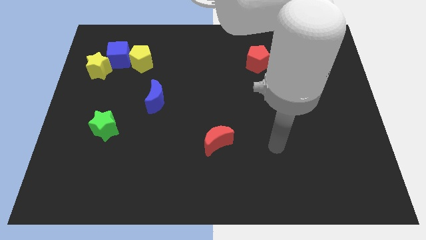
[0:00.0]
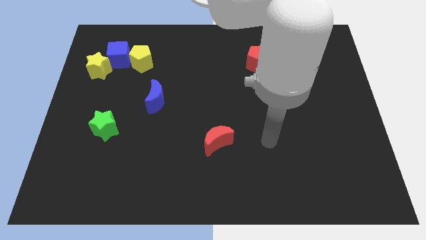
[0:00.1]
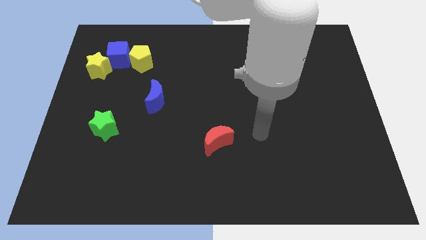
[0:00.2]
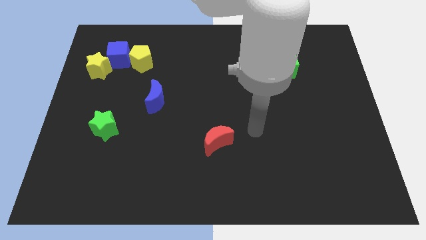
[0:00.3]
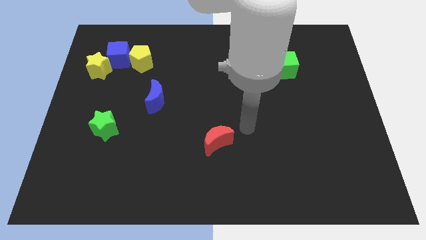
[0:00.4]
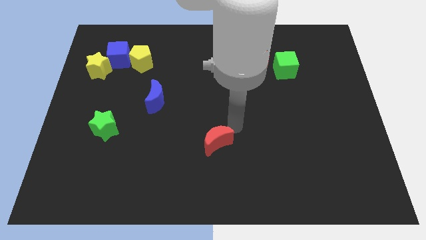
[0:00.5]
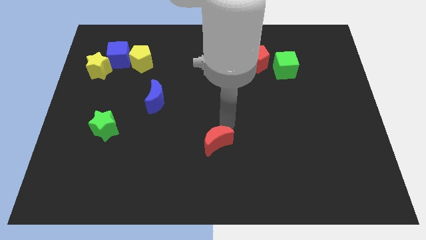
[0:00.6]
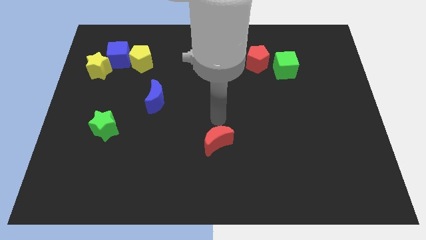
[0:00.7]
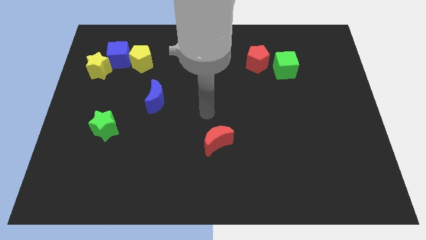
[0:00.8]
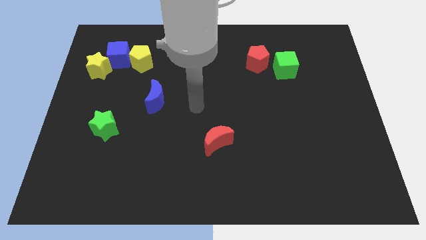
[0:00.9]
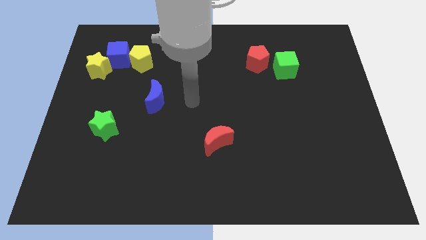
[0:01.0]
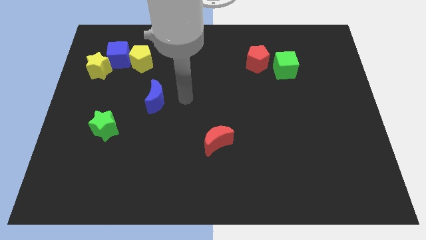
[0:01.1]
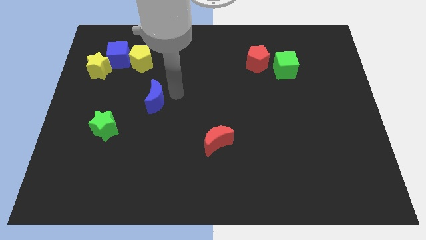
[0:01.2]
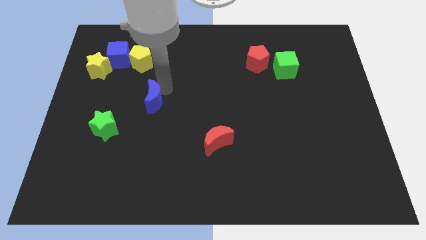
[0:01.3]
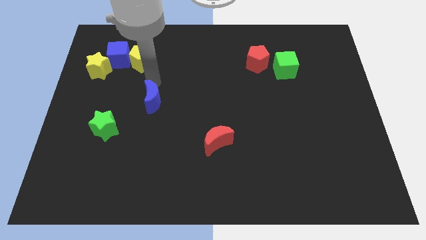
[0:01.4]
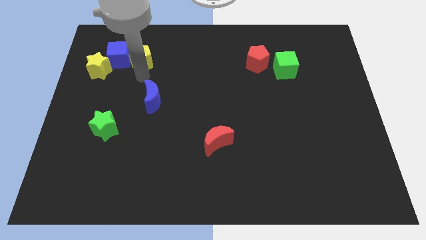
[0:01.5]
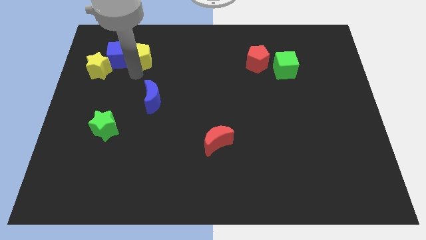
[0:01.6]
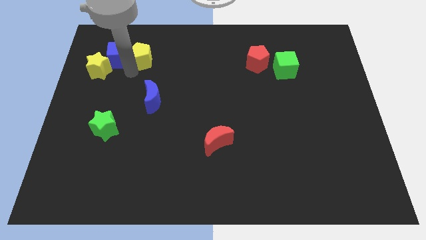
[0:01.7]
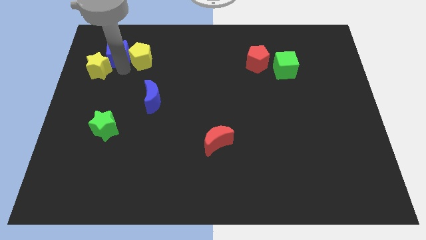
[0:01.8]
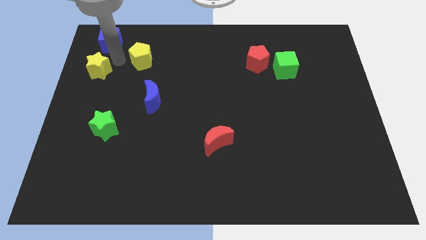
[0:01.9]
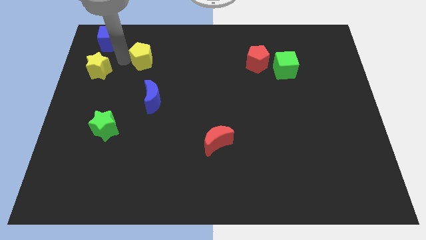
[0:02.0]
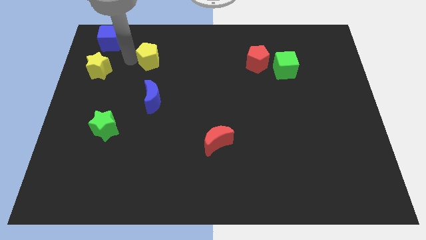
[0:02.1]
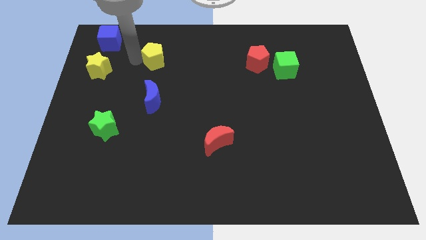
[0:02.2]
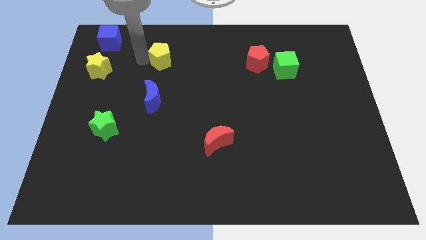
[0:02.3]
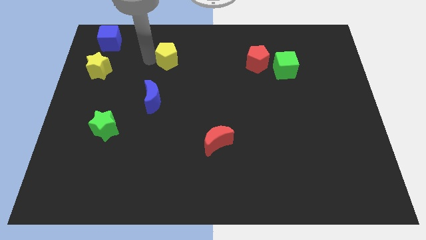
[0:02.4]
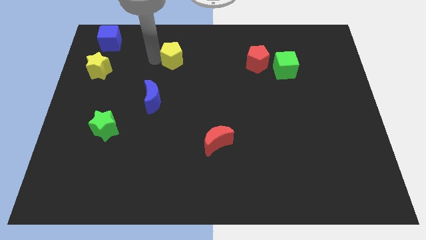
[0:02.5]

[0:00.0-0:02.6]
move the yellow pentagon a little bit right

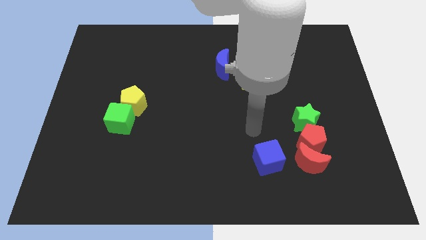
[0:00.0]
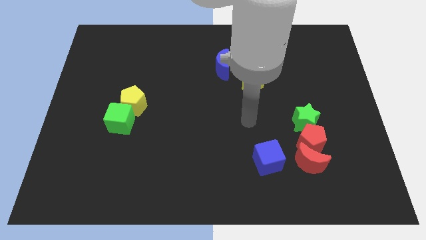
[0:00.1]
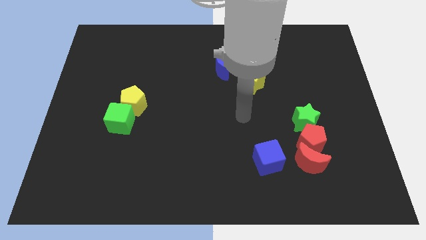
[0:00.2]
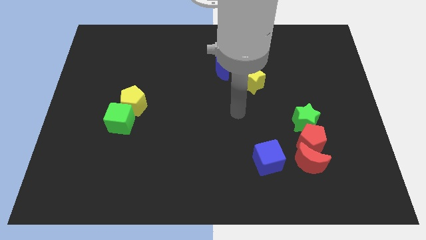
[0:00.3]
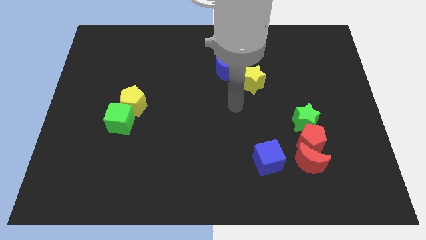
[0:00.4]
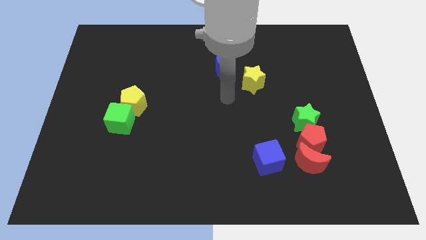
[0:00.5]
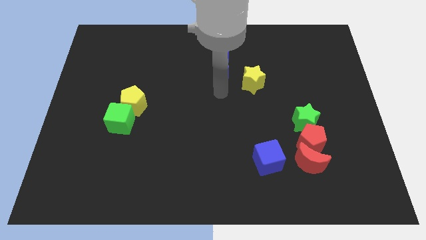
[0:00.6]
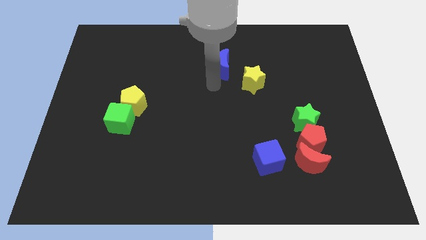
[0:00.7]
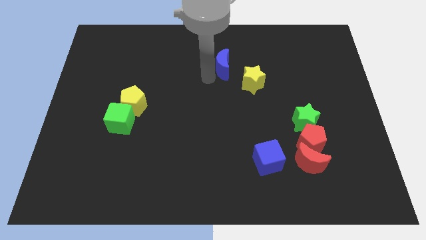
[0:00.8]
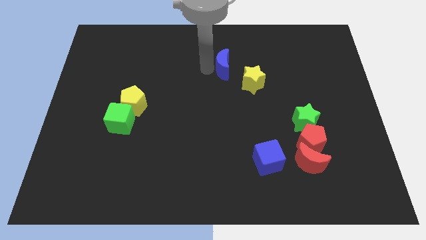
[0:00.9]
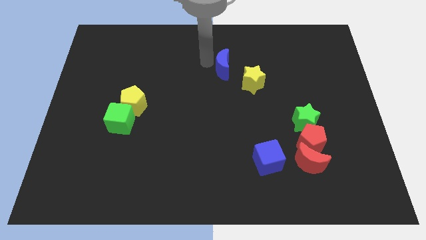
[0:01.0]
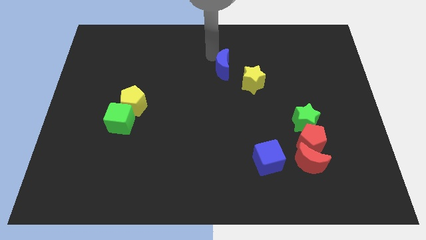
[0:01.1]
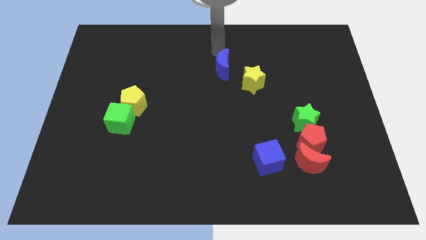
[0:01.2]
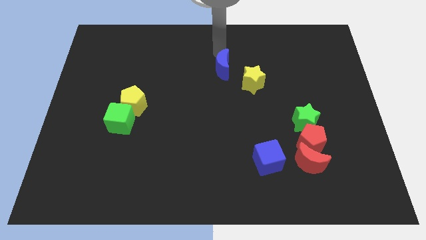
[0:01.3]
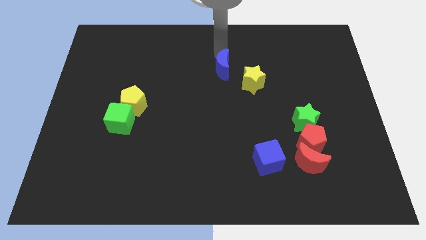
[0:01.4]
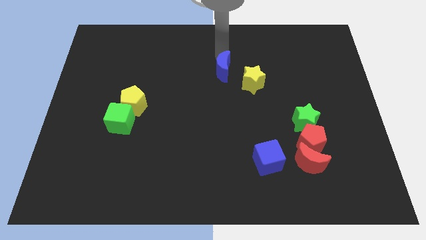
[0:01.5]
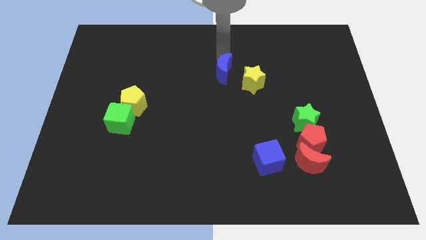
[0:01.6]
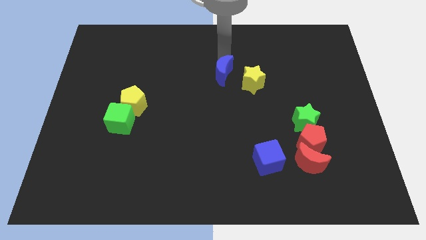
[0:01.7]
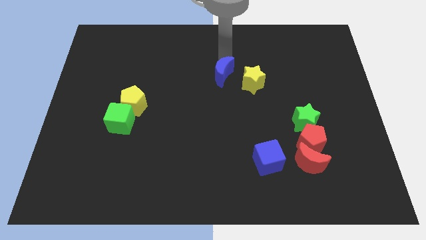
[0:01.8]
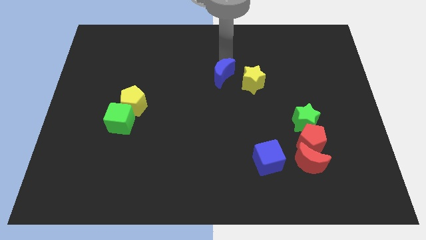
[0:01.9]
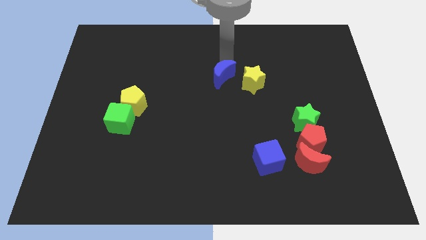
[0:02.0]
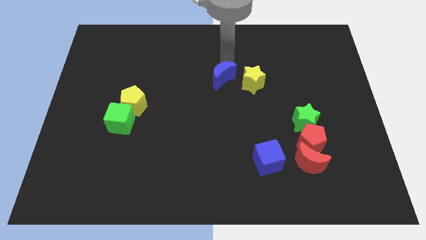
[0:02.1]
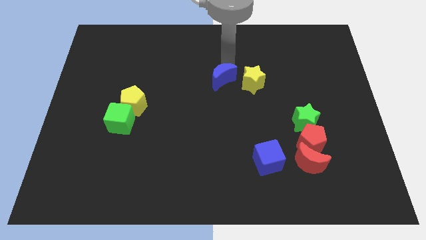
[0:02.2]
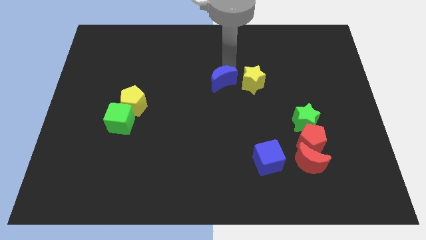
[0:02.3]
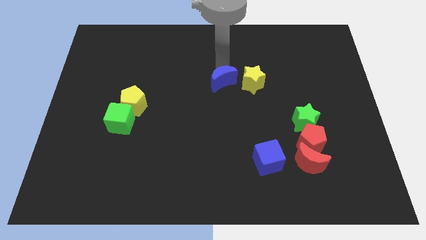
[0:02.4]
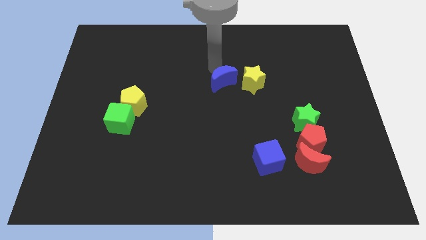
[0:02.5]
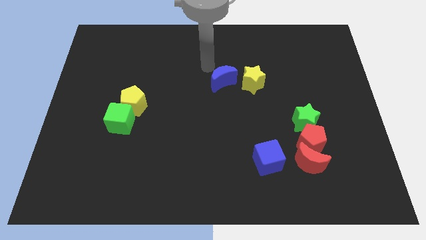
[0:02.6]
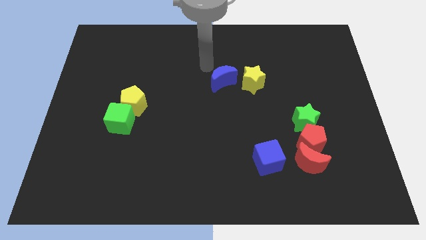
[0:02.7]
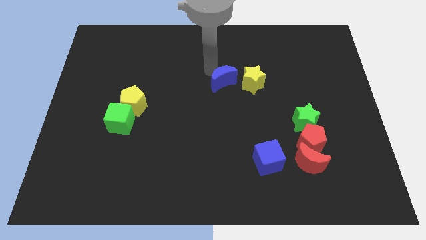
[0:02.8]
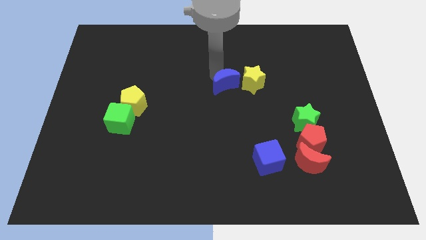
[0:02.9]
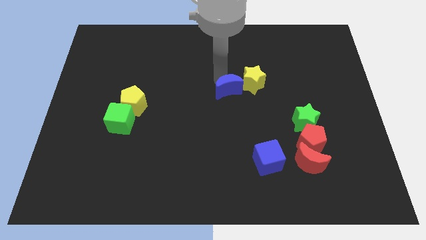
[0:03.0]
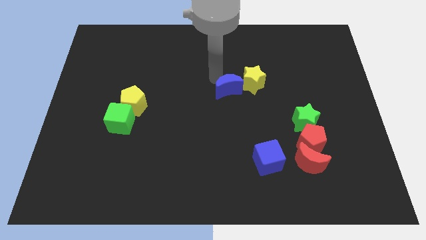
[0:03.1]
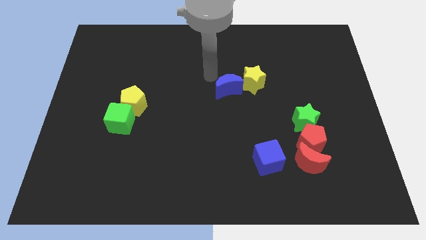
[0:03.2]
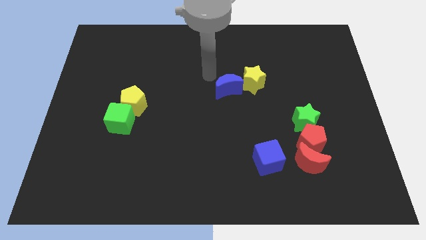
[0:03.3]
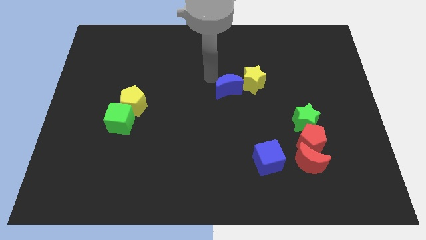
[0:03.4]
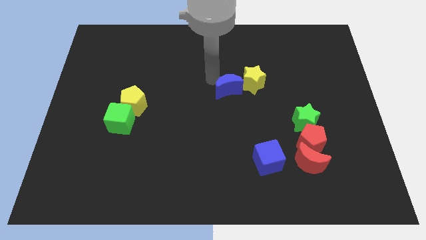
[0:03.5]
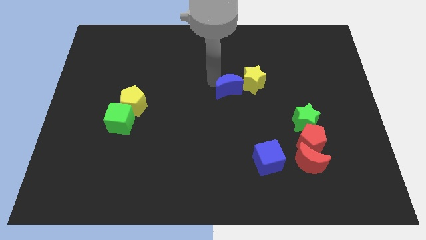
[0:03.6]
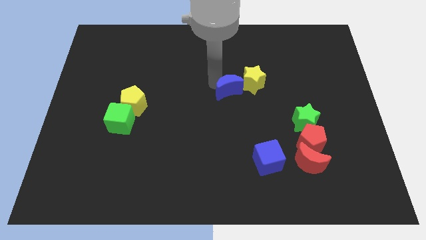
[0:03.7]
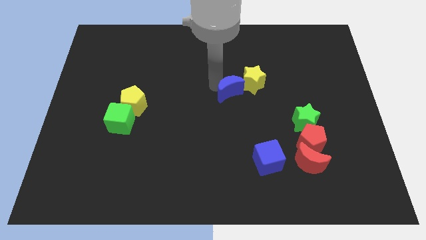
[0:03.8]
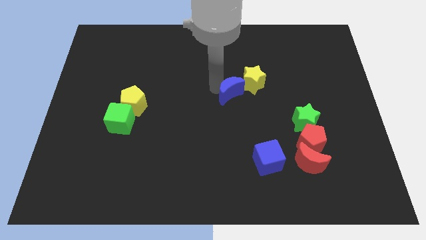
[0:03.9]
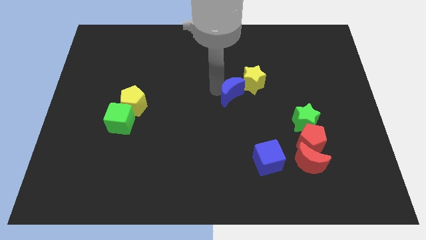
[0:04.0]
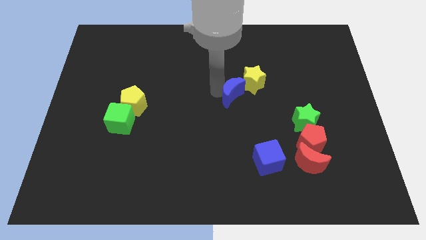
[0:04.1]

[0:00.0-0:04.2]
move the blue moon down and right diagonally a little bit

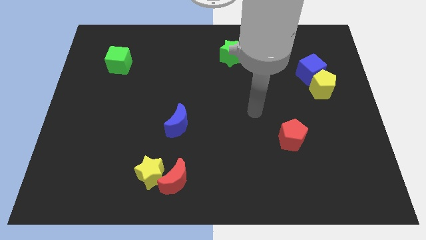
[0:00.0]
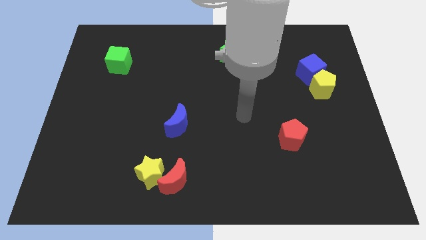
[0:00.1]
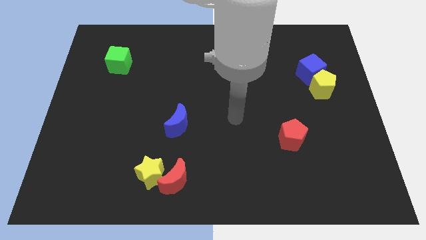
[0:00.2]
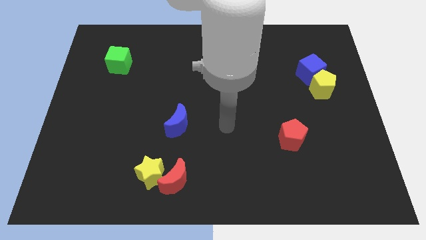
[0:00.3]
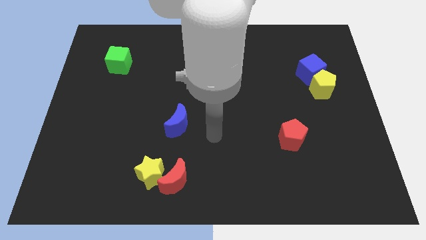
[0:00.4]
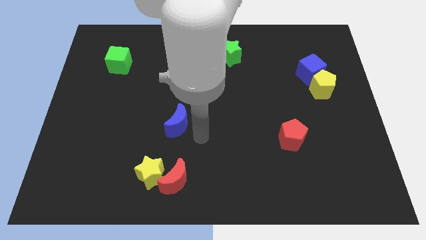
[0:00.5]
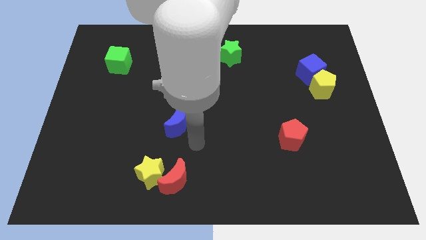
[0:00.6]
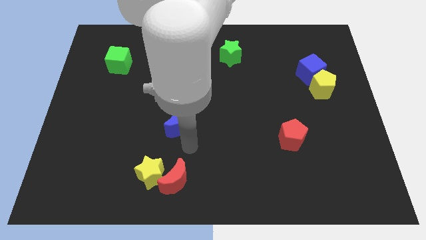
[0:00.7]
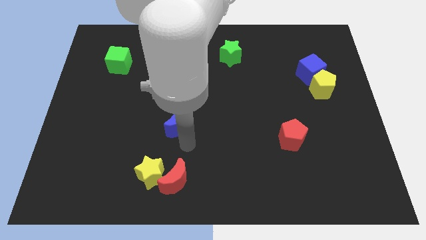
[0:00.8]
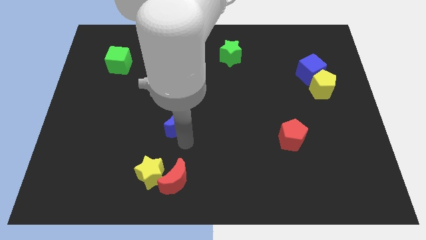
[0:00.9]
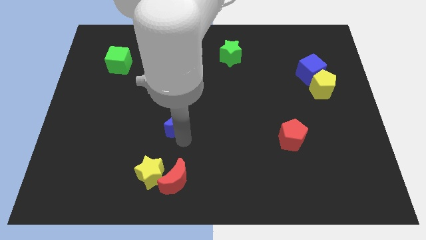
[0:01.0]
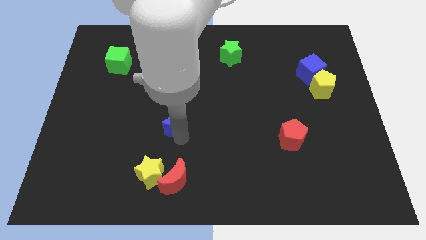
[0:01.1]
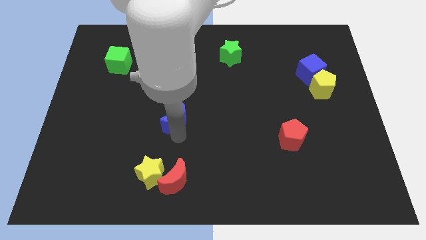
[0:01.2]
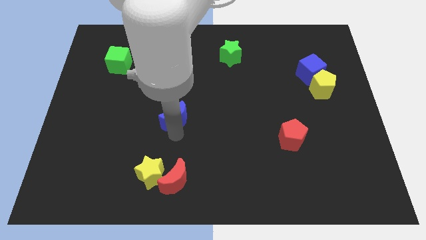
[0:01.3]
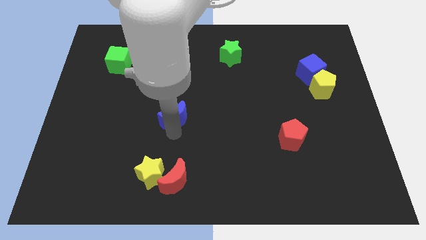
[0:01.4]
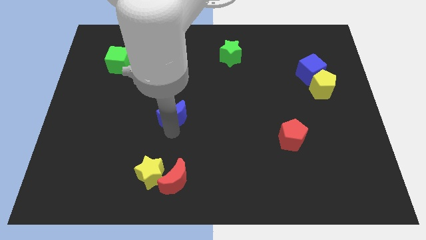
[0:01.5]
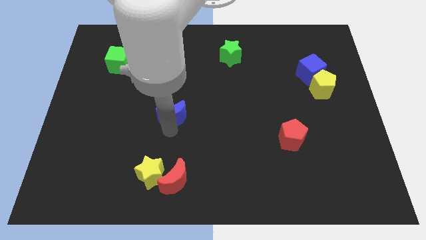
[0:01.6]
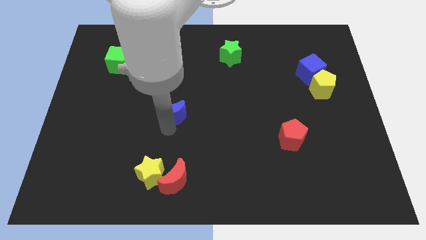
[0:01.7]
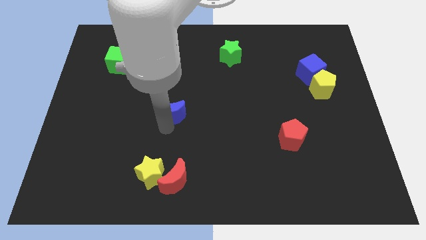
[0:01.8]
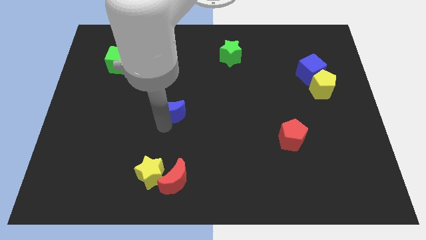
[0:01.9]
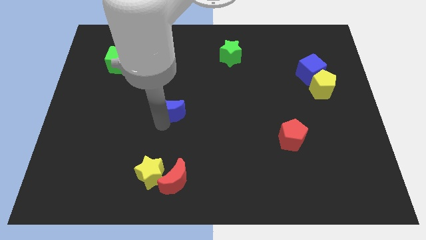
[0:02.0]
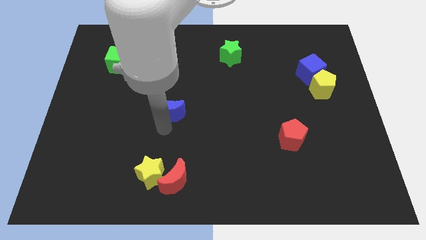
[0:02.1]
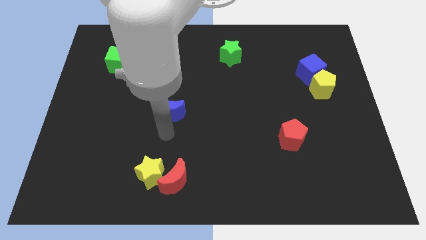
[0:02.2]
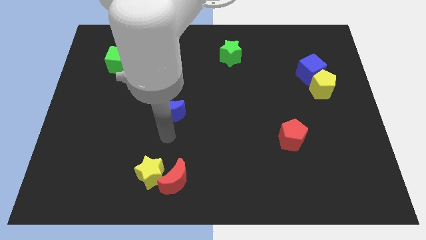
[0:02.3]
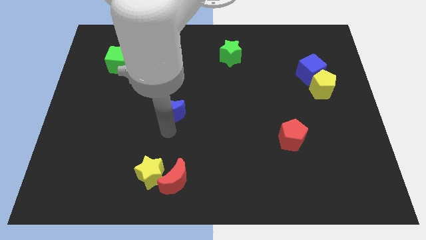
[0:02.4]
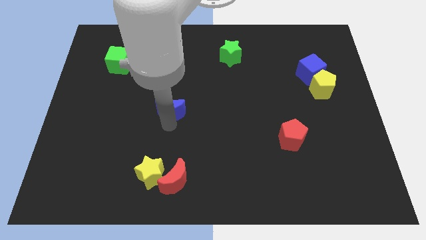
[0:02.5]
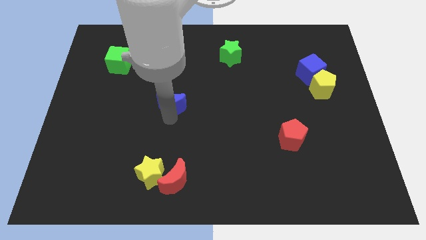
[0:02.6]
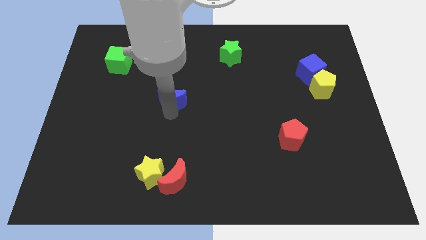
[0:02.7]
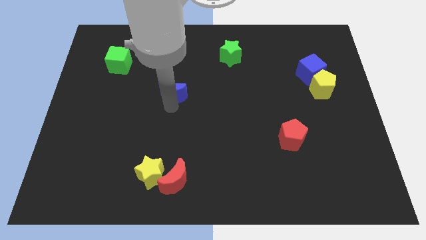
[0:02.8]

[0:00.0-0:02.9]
move the blue moon up somewhat
